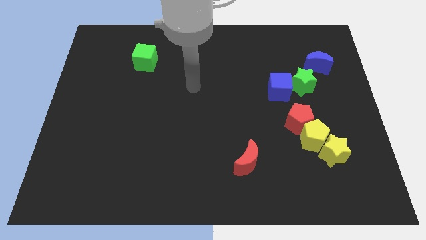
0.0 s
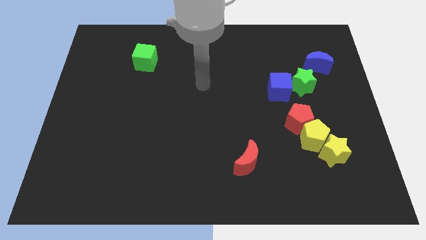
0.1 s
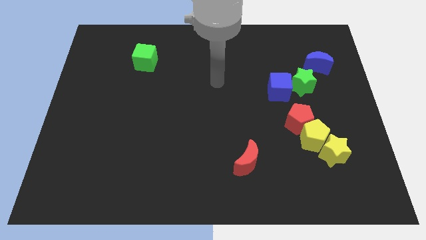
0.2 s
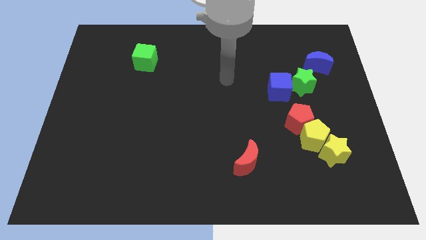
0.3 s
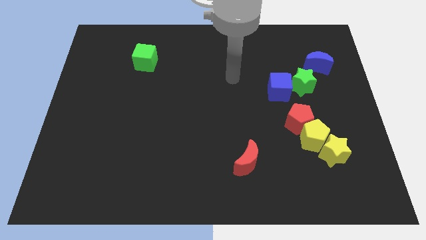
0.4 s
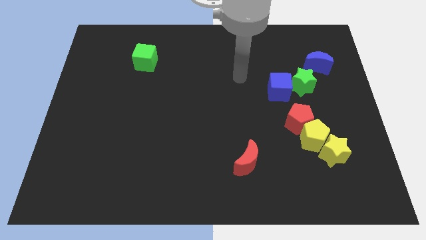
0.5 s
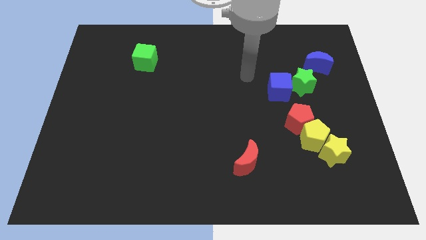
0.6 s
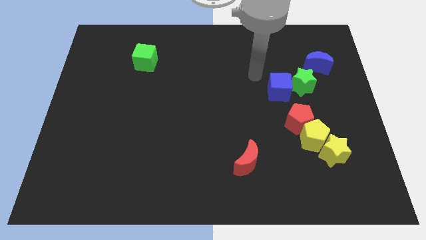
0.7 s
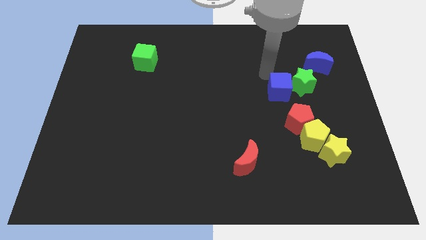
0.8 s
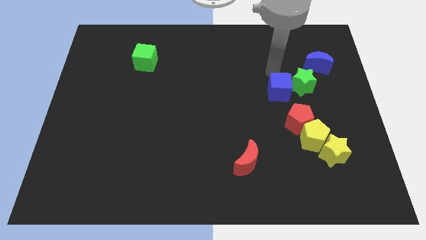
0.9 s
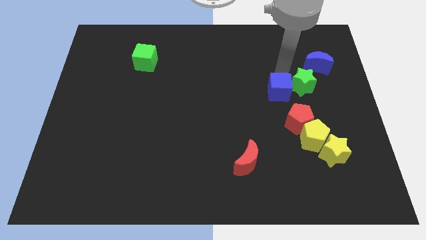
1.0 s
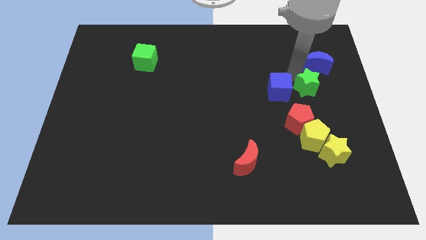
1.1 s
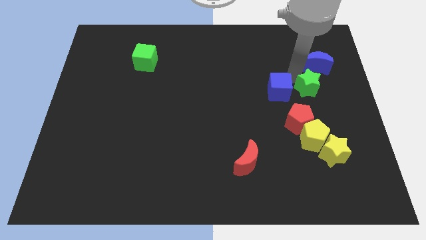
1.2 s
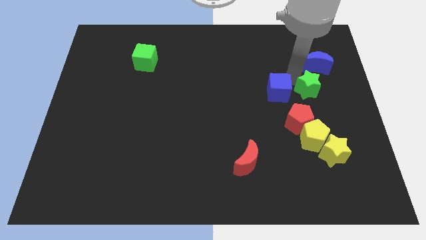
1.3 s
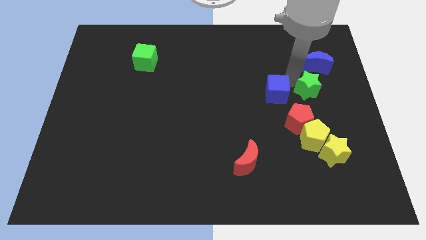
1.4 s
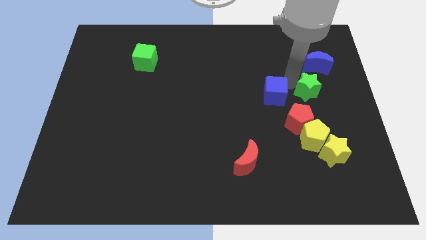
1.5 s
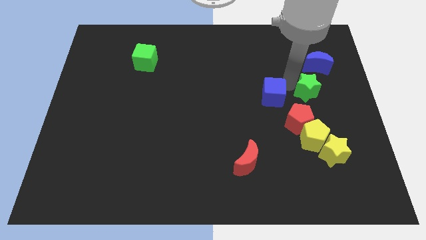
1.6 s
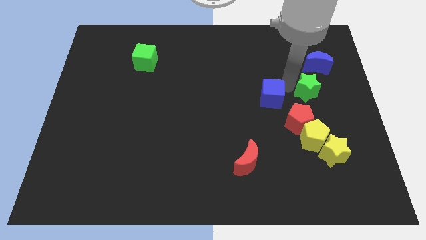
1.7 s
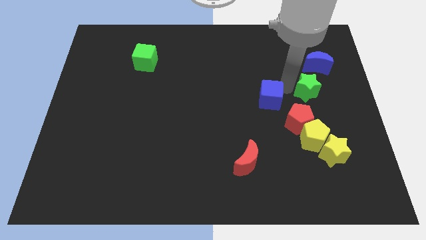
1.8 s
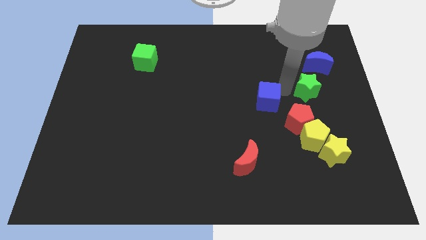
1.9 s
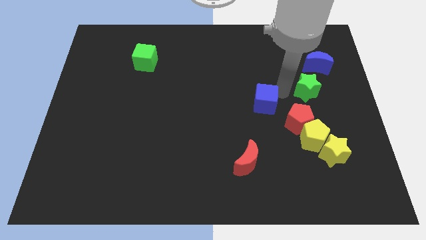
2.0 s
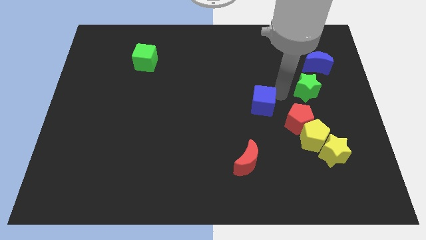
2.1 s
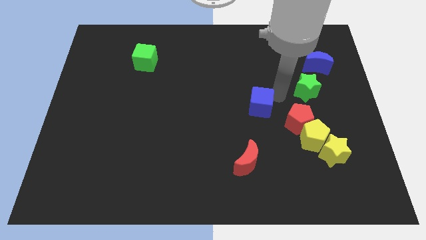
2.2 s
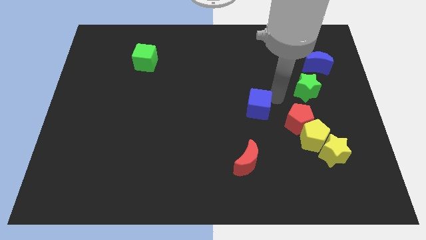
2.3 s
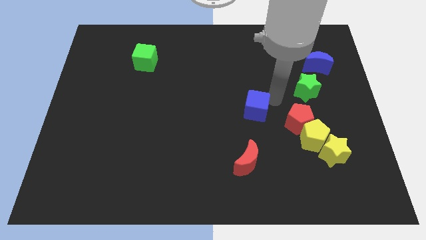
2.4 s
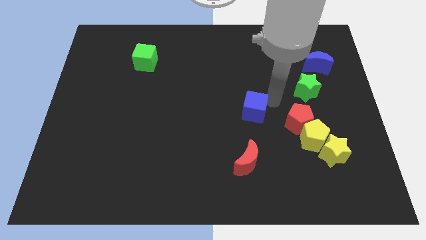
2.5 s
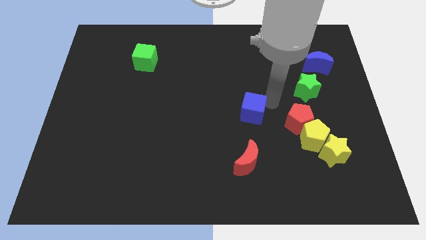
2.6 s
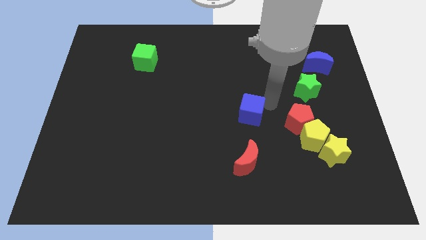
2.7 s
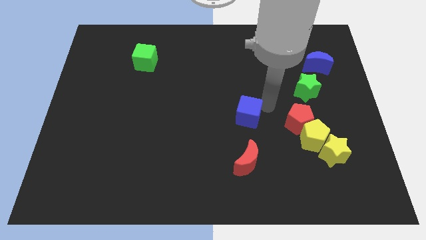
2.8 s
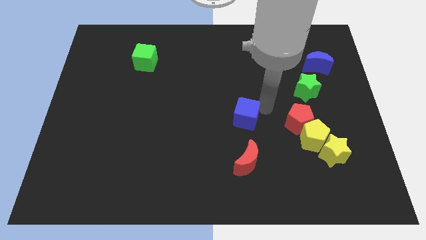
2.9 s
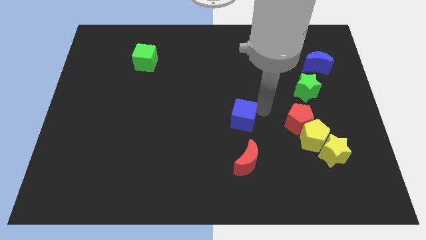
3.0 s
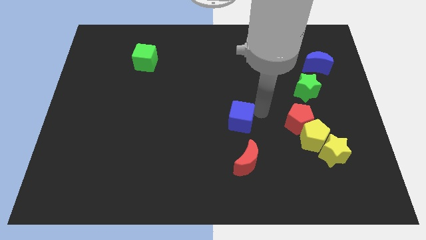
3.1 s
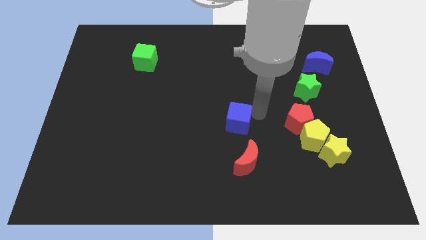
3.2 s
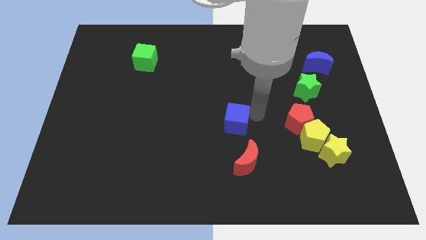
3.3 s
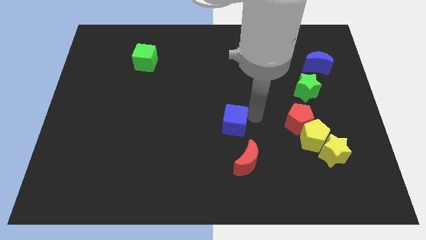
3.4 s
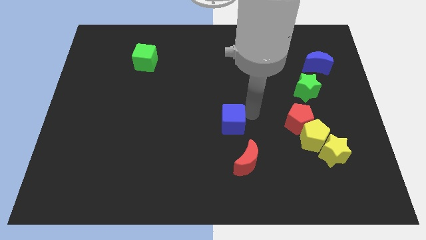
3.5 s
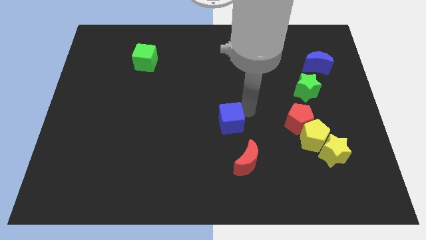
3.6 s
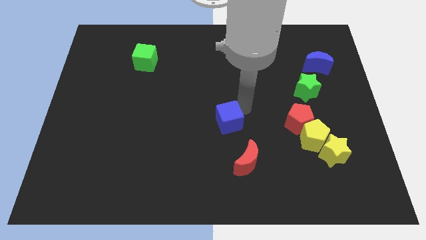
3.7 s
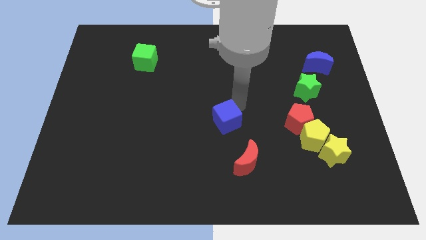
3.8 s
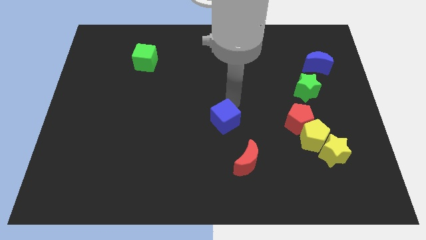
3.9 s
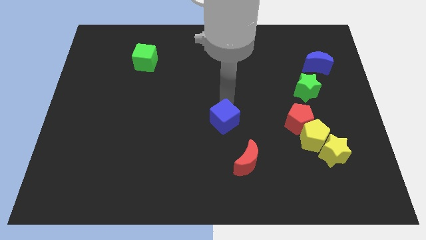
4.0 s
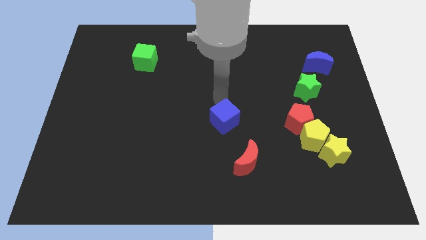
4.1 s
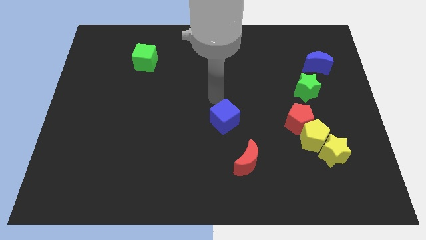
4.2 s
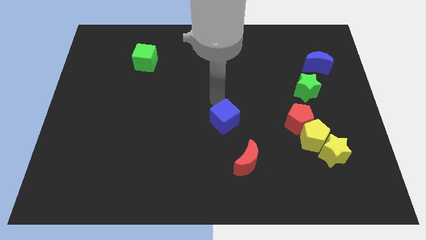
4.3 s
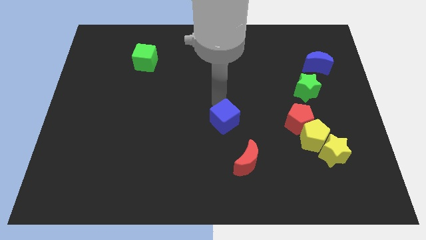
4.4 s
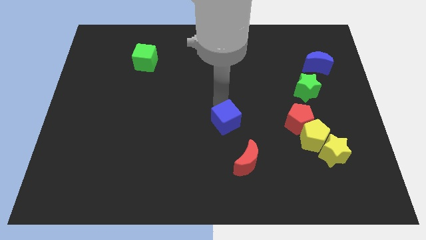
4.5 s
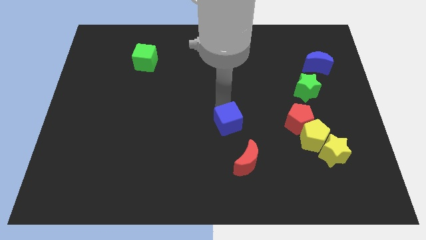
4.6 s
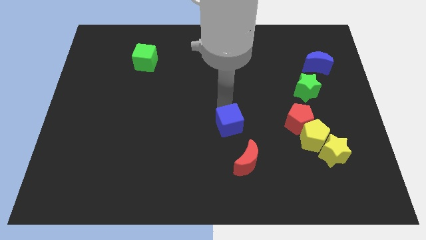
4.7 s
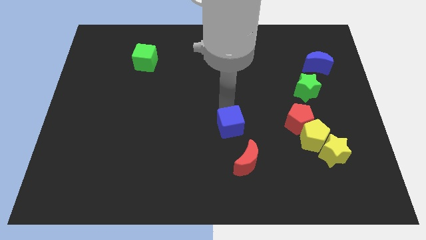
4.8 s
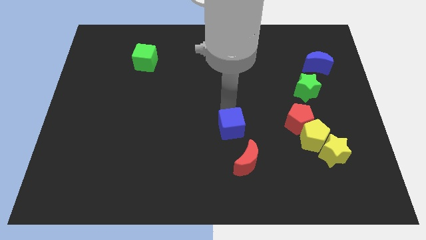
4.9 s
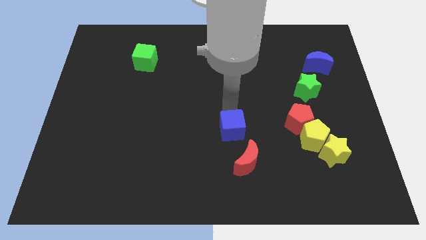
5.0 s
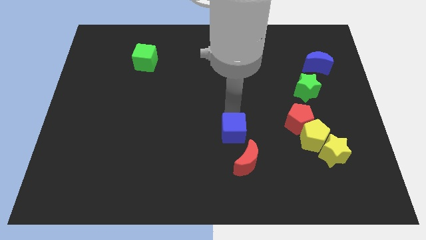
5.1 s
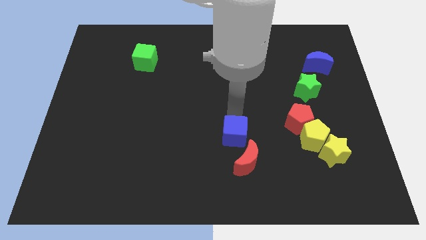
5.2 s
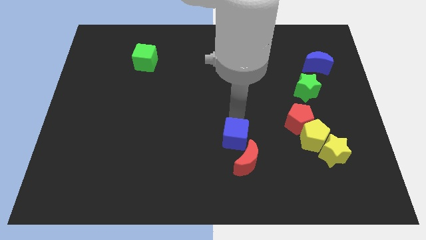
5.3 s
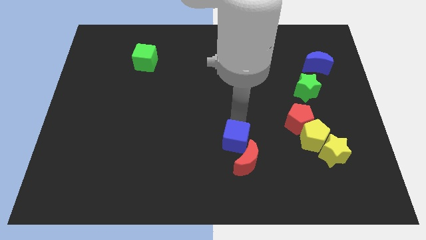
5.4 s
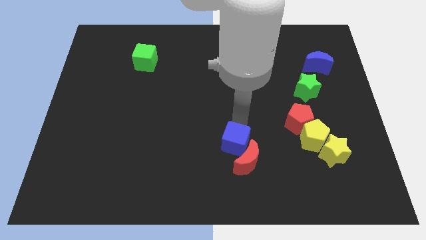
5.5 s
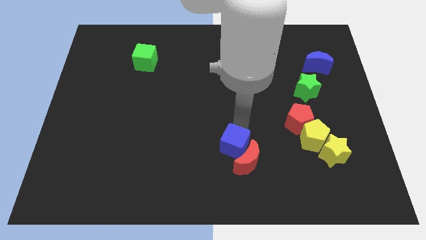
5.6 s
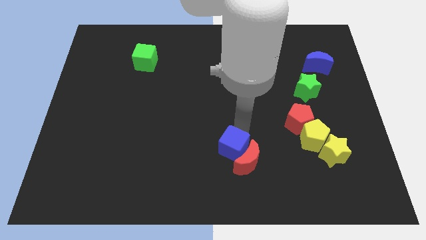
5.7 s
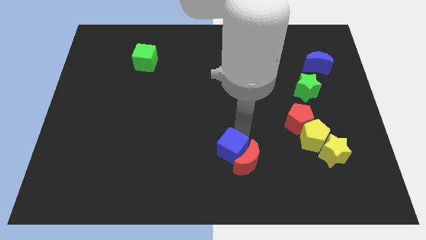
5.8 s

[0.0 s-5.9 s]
push the blue cube downwards and left diagonally

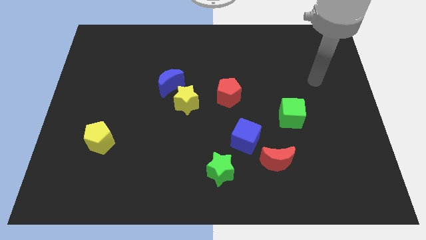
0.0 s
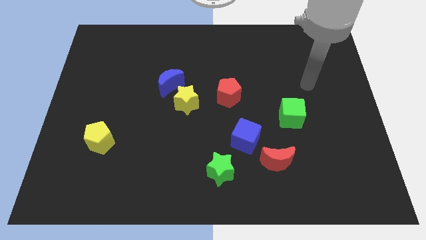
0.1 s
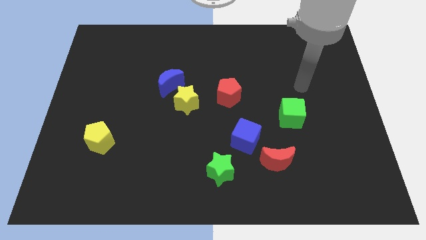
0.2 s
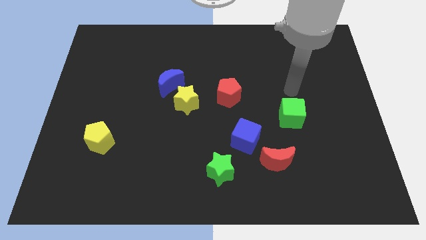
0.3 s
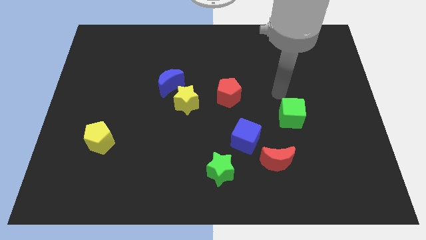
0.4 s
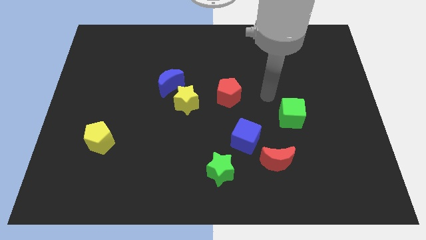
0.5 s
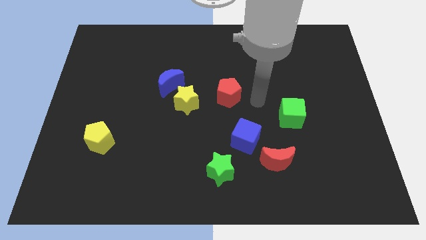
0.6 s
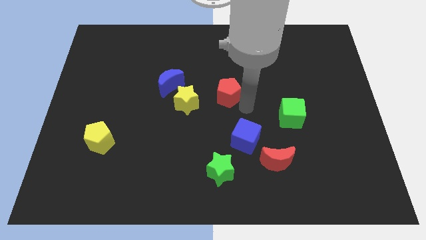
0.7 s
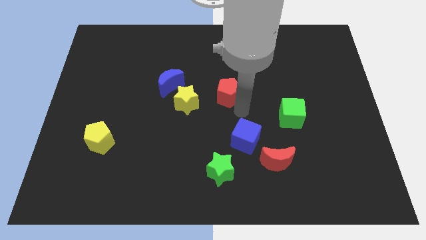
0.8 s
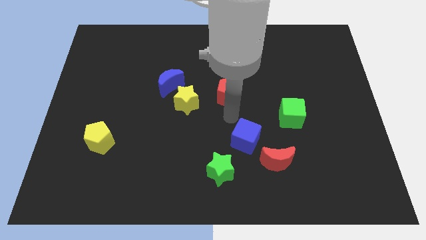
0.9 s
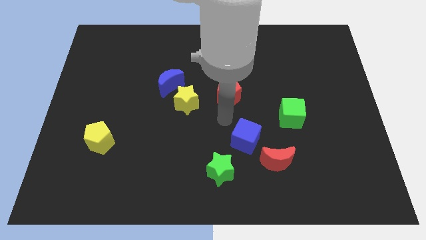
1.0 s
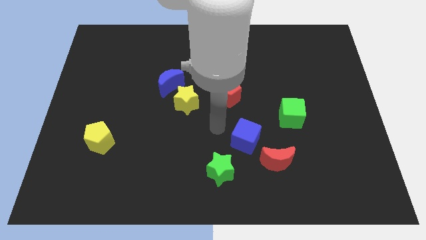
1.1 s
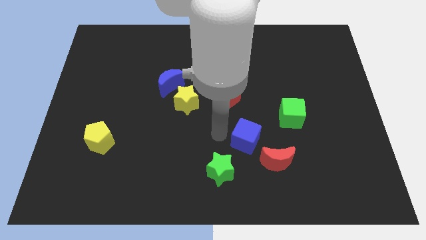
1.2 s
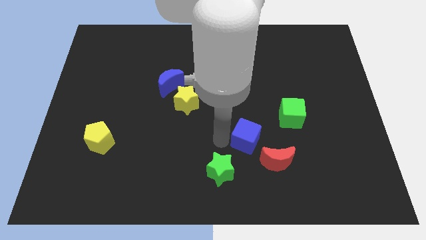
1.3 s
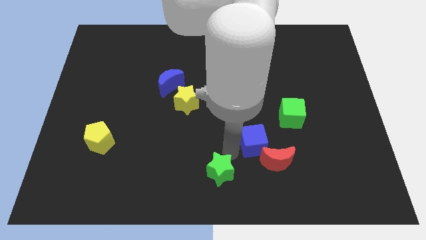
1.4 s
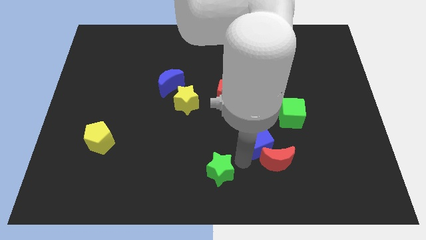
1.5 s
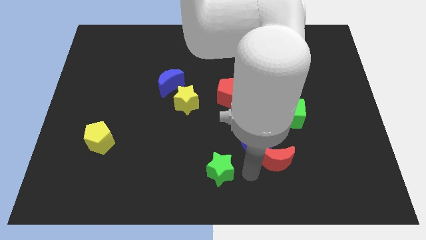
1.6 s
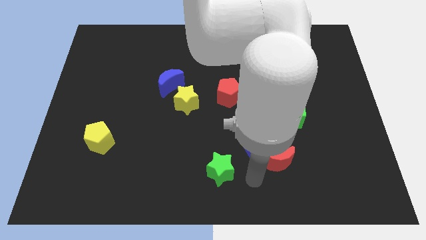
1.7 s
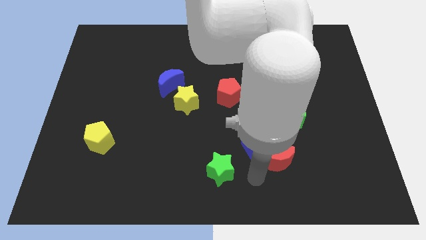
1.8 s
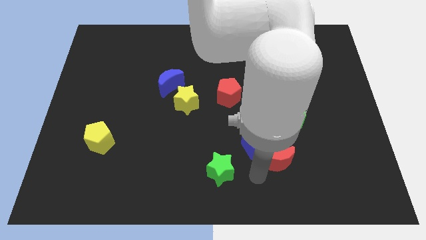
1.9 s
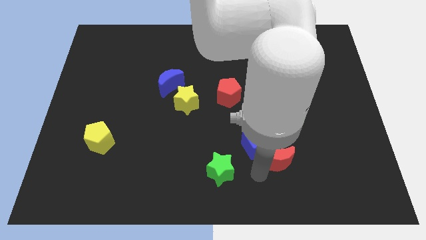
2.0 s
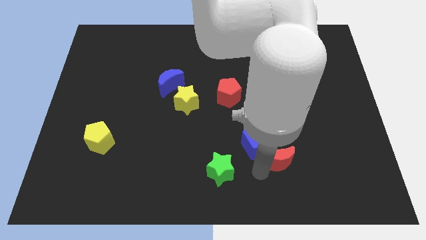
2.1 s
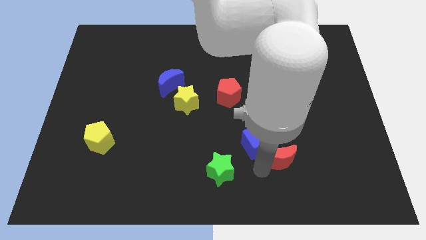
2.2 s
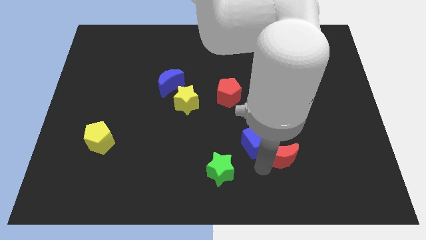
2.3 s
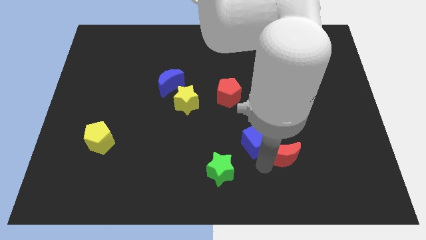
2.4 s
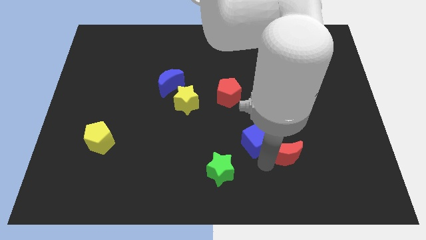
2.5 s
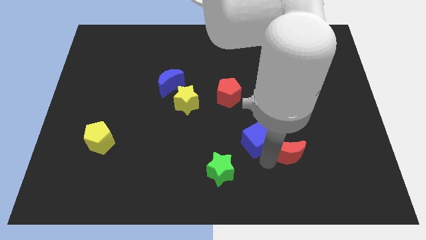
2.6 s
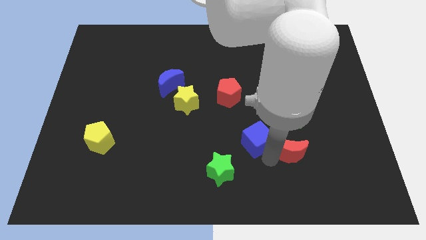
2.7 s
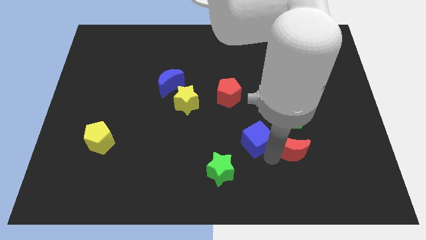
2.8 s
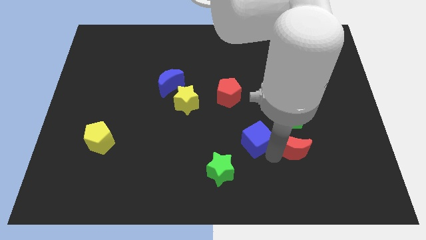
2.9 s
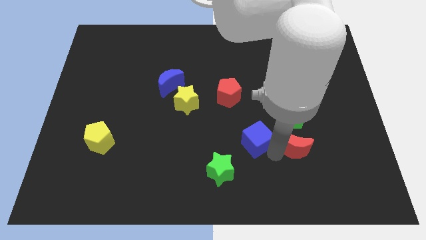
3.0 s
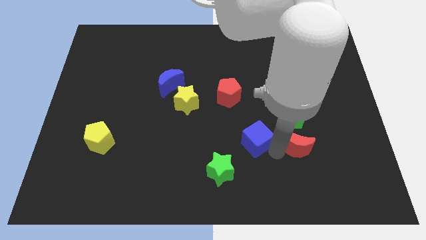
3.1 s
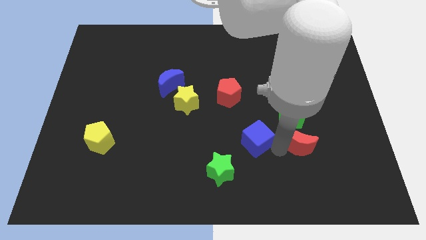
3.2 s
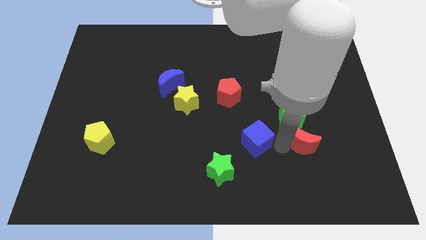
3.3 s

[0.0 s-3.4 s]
push the red moon diagonally up and right a little
